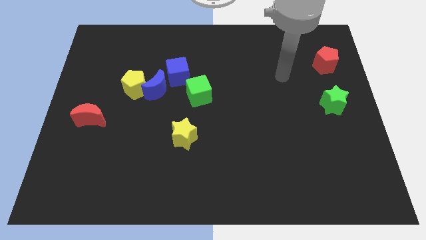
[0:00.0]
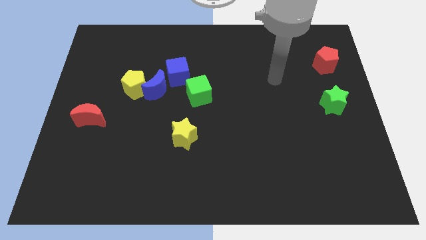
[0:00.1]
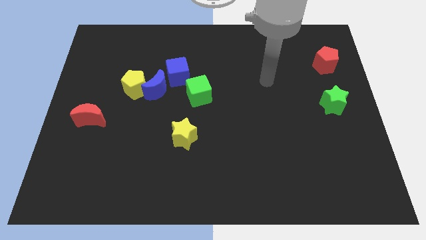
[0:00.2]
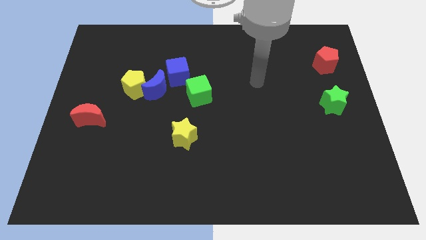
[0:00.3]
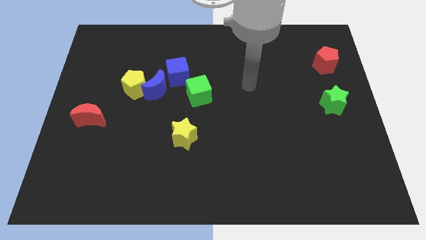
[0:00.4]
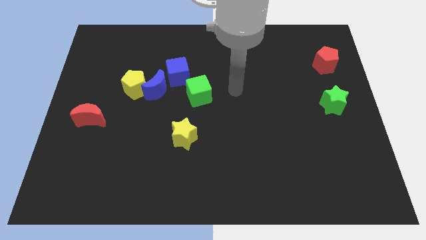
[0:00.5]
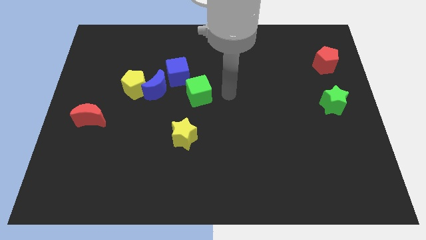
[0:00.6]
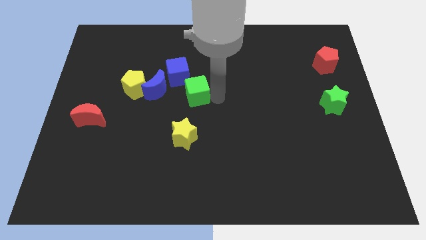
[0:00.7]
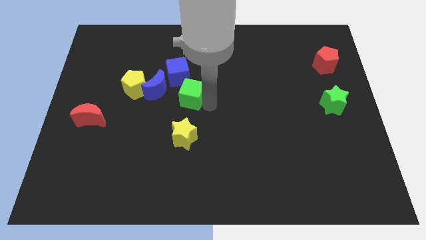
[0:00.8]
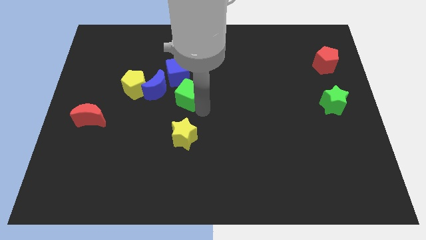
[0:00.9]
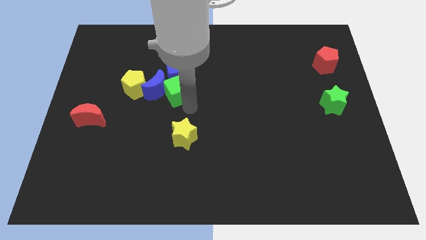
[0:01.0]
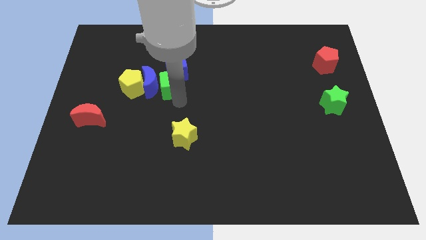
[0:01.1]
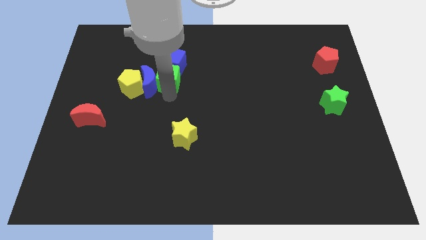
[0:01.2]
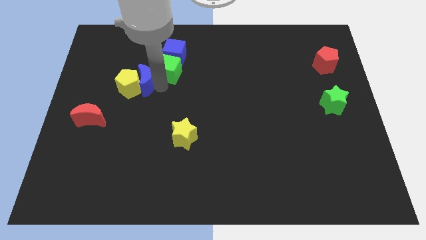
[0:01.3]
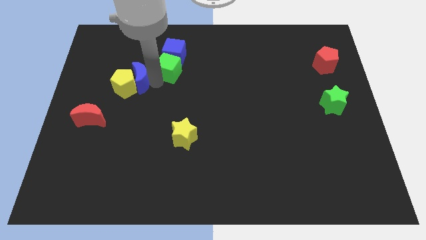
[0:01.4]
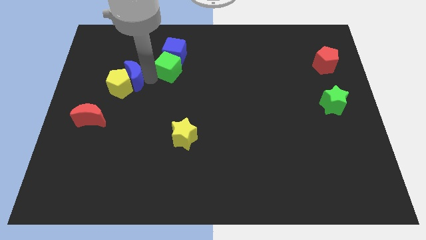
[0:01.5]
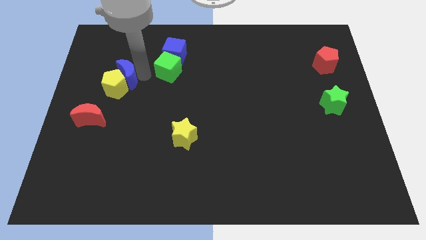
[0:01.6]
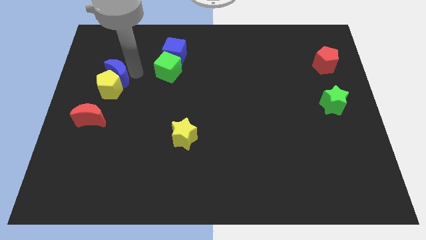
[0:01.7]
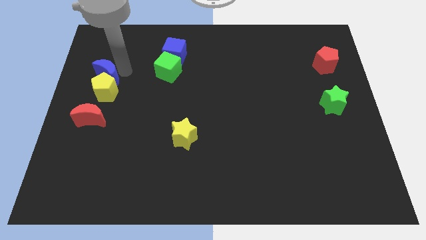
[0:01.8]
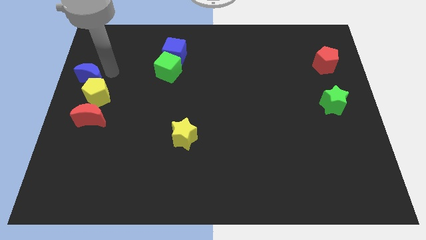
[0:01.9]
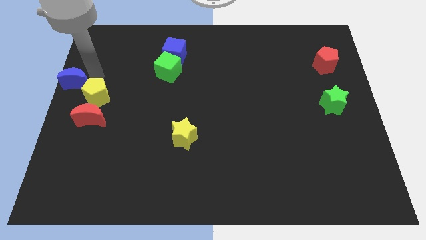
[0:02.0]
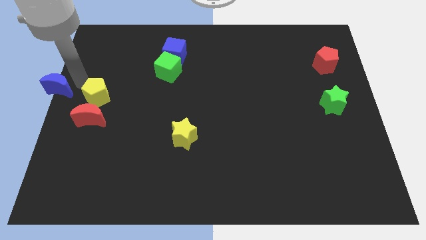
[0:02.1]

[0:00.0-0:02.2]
separate the yellow pentagon from the blue moon

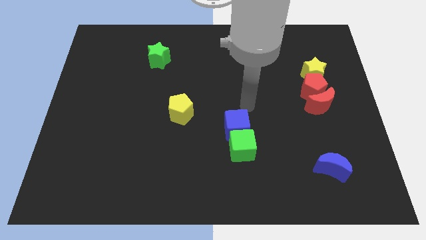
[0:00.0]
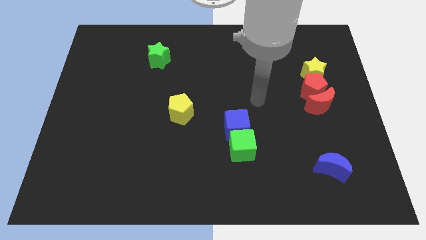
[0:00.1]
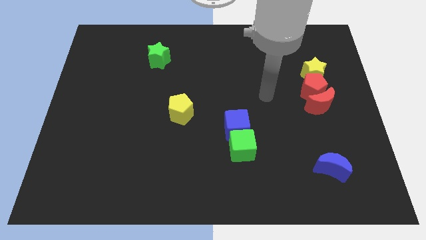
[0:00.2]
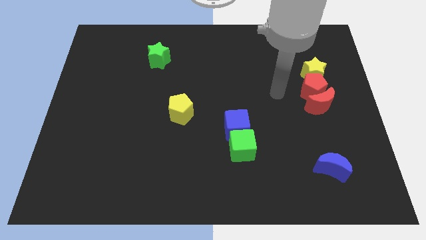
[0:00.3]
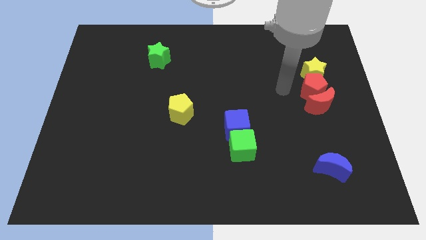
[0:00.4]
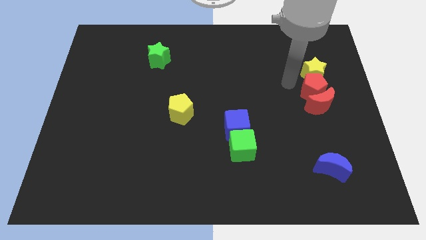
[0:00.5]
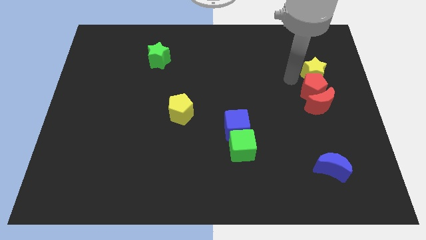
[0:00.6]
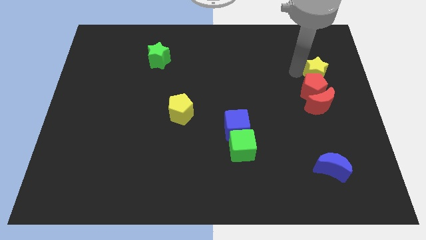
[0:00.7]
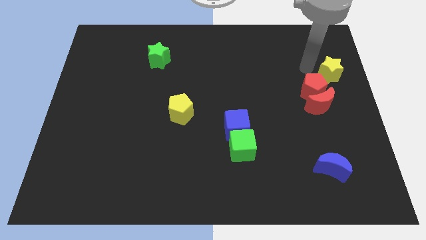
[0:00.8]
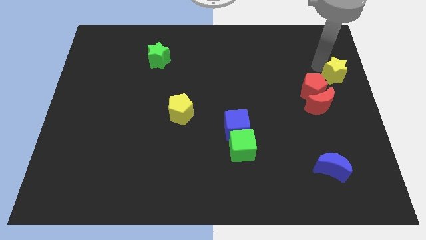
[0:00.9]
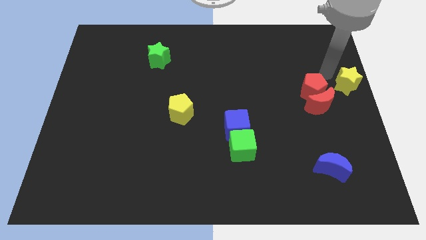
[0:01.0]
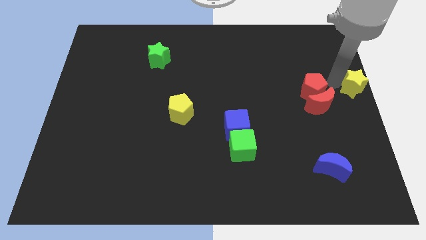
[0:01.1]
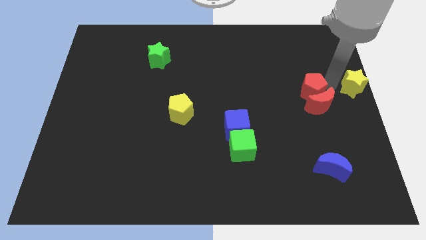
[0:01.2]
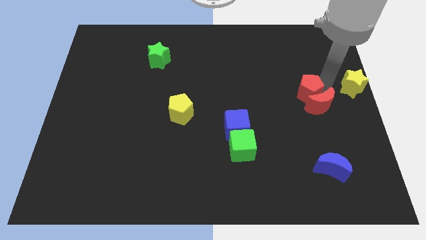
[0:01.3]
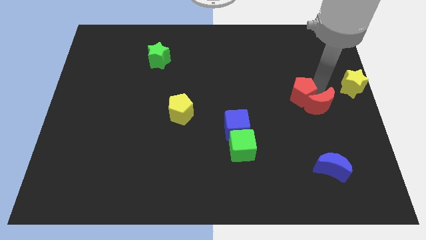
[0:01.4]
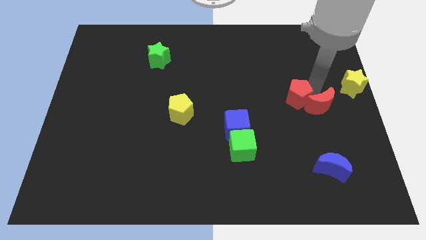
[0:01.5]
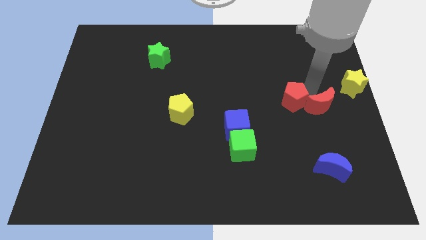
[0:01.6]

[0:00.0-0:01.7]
pull the red pentagon apart from the red moon and yellow star

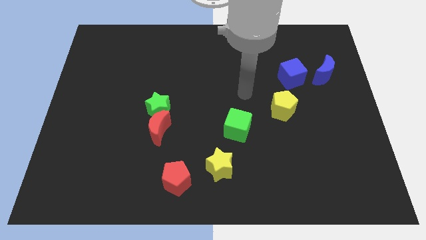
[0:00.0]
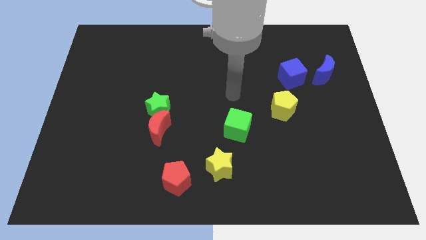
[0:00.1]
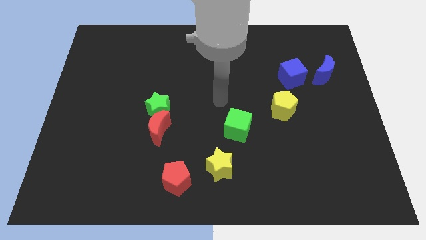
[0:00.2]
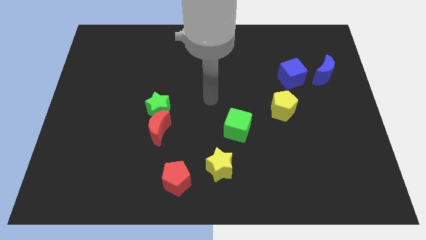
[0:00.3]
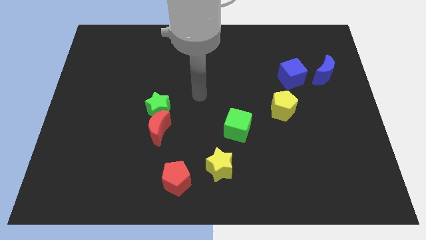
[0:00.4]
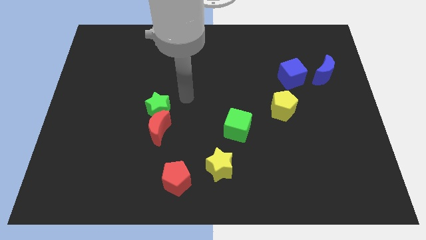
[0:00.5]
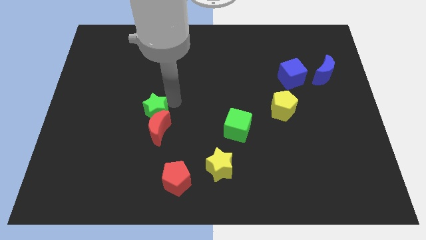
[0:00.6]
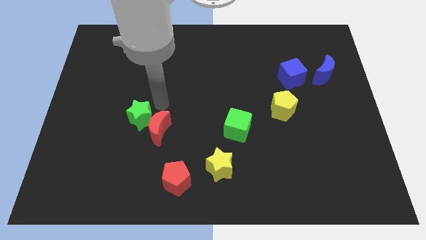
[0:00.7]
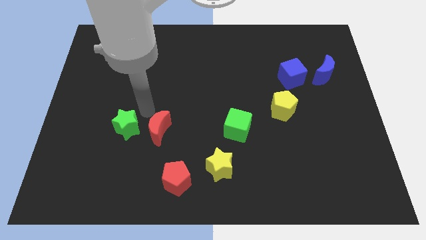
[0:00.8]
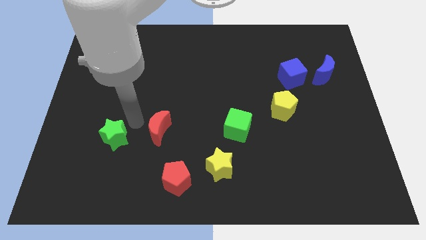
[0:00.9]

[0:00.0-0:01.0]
move the red moon away from the green star

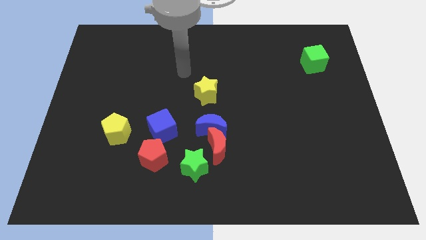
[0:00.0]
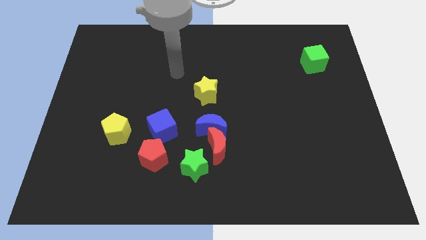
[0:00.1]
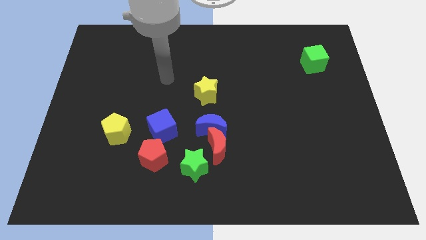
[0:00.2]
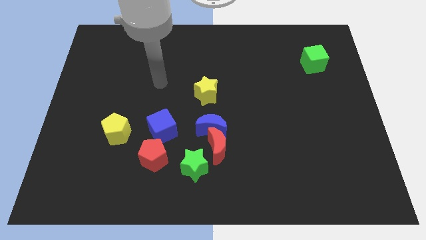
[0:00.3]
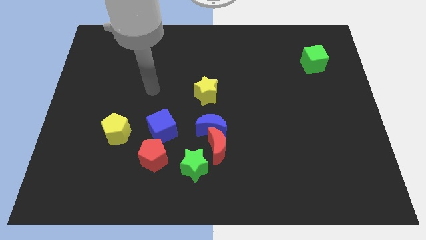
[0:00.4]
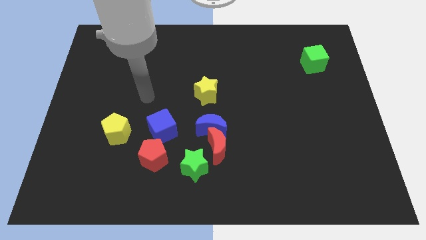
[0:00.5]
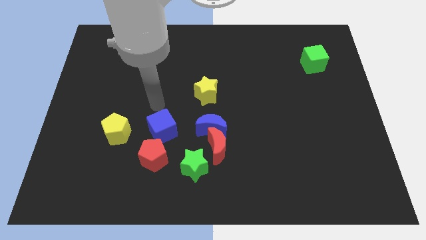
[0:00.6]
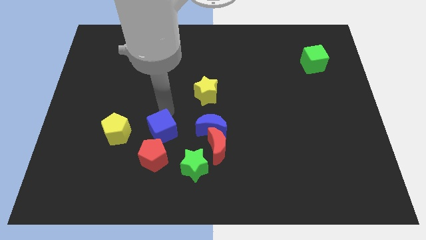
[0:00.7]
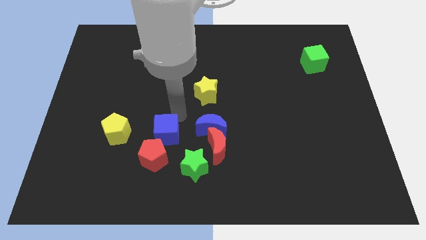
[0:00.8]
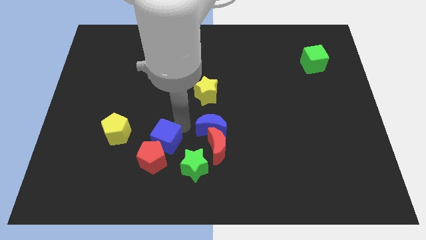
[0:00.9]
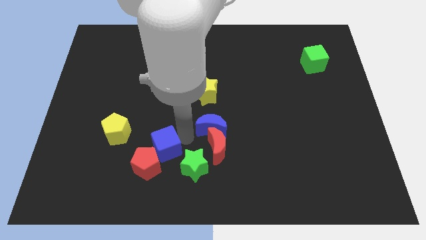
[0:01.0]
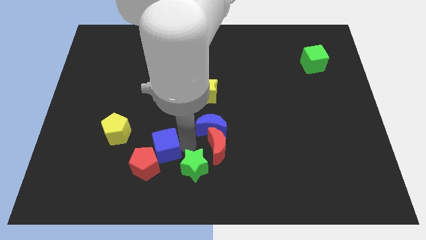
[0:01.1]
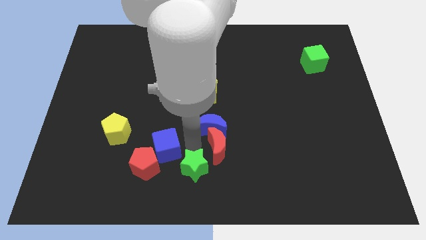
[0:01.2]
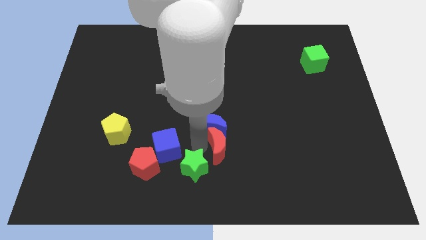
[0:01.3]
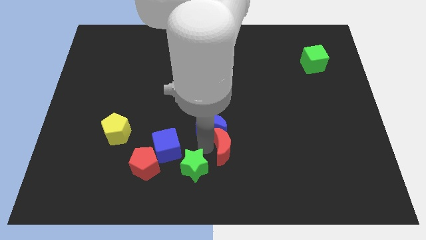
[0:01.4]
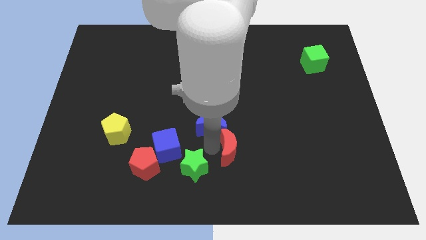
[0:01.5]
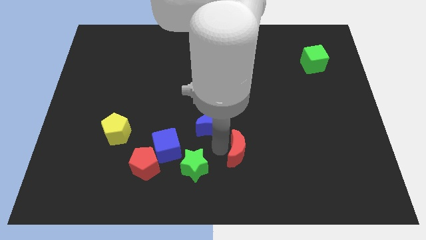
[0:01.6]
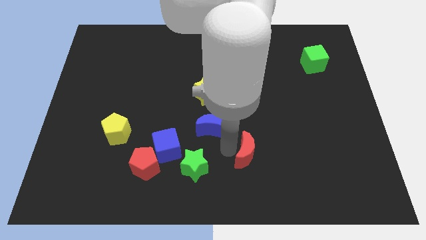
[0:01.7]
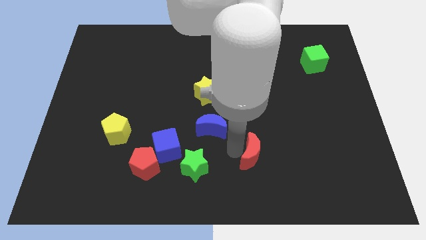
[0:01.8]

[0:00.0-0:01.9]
separate the red moon from the blue moon and green star

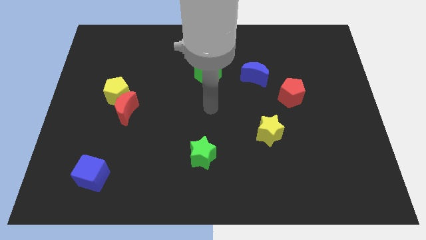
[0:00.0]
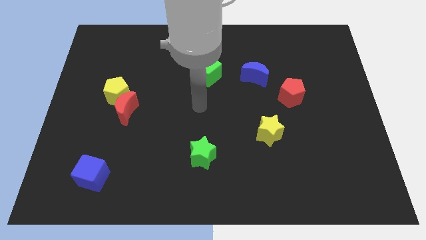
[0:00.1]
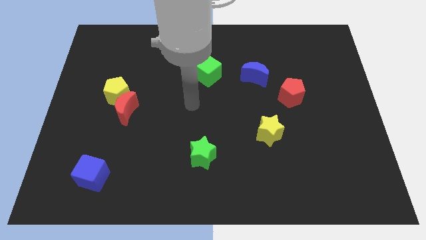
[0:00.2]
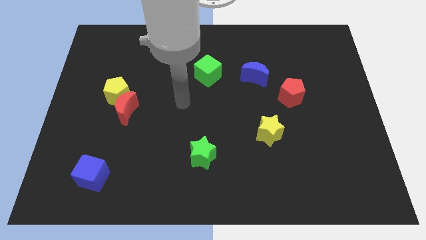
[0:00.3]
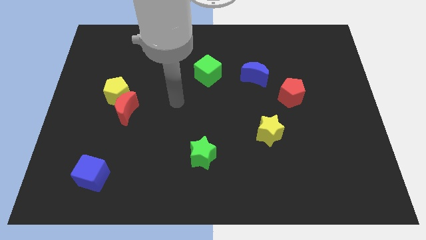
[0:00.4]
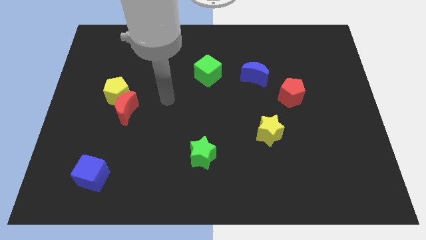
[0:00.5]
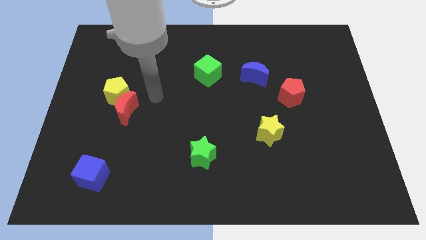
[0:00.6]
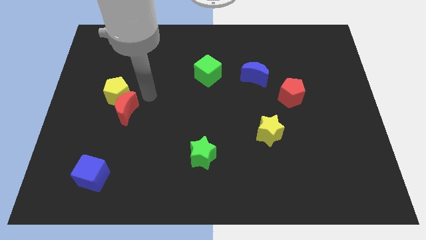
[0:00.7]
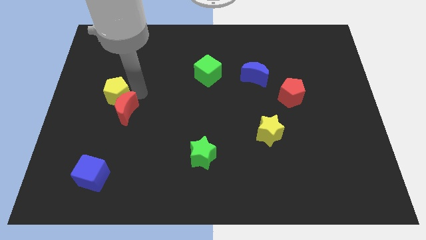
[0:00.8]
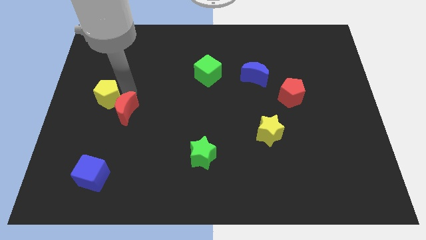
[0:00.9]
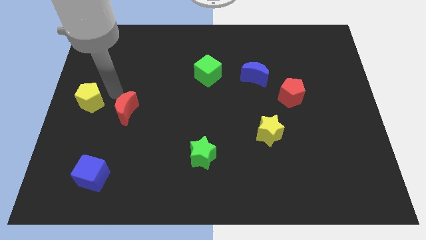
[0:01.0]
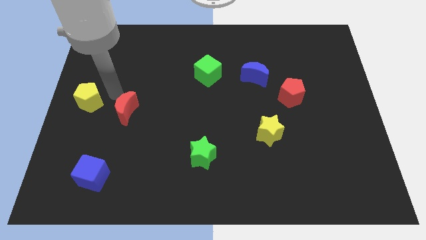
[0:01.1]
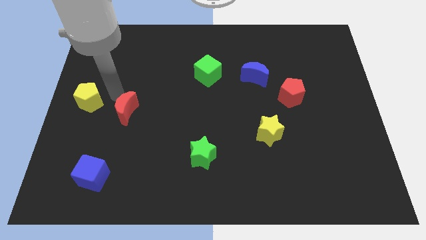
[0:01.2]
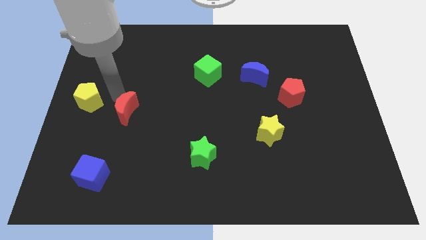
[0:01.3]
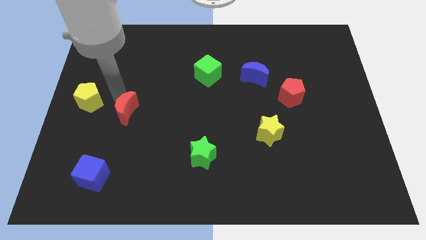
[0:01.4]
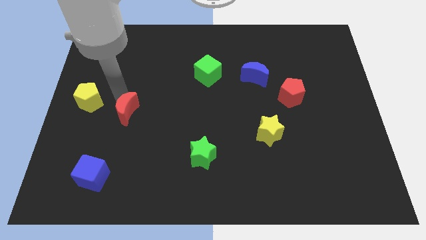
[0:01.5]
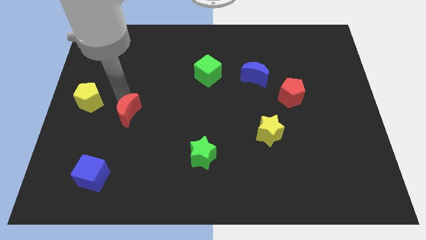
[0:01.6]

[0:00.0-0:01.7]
move the red moon away from the yellow pentagon

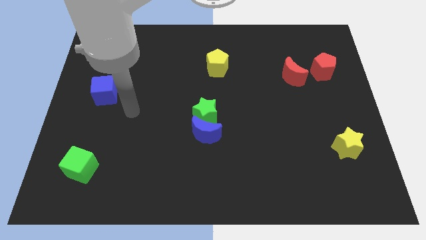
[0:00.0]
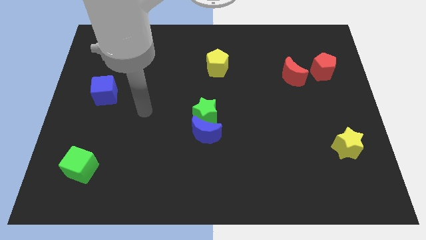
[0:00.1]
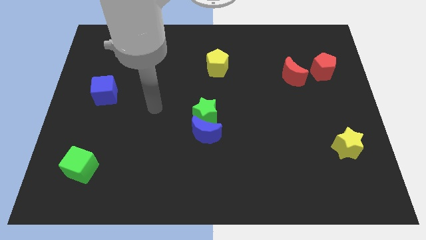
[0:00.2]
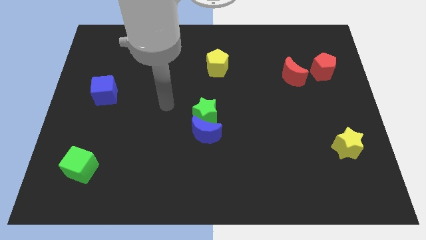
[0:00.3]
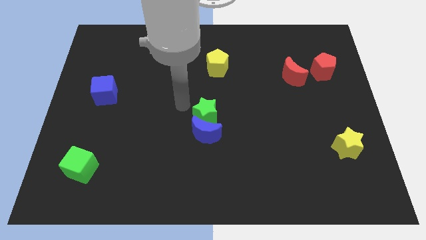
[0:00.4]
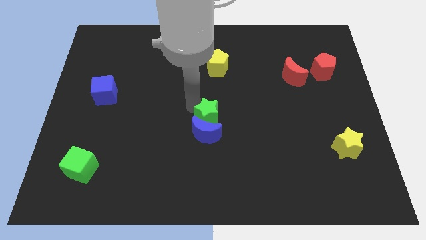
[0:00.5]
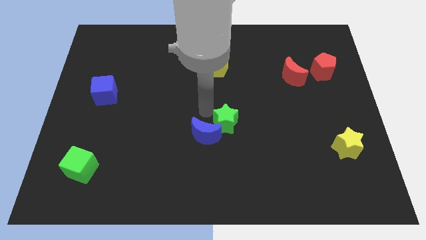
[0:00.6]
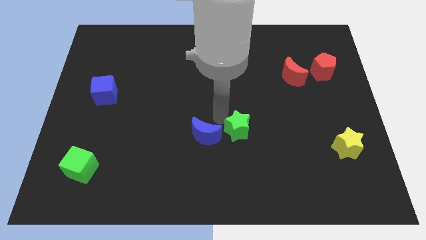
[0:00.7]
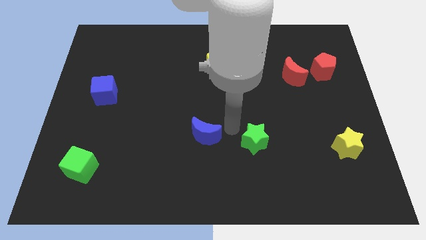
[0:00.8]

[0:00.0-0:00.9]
pull the blue moon apart from the green star
